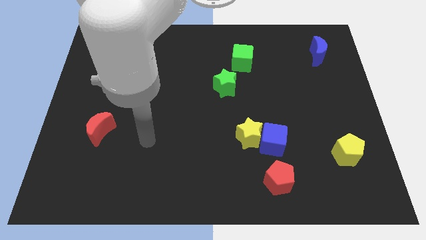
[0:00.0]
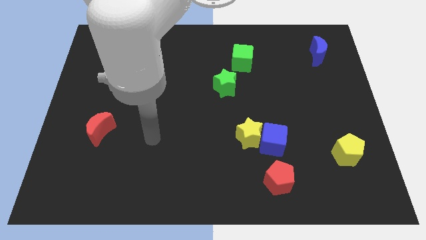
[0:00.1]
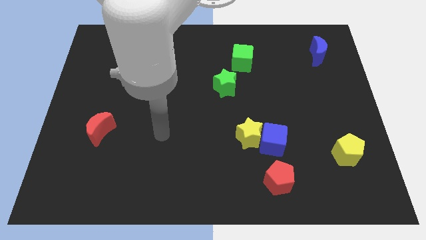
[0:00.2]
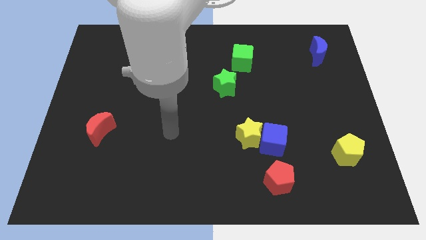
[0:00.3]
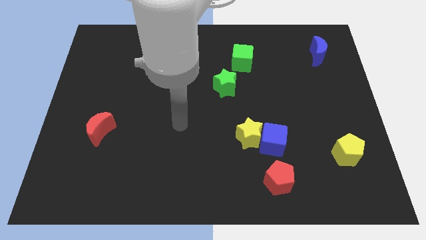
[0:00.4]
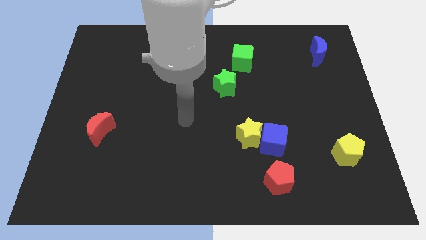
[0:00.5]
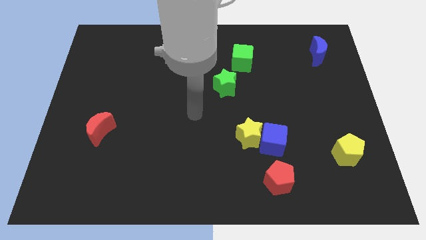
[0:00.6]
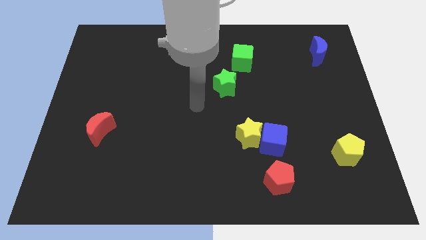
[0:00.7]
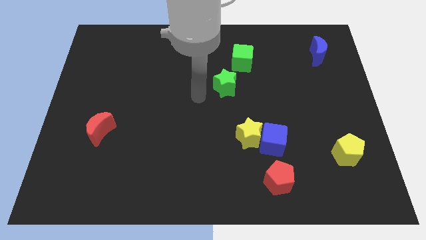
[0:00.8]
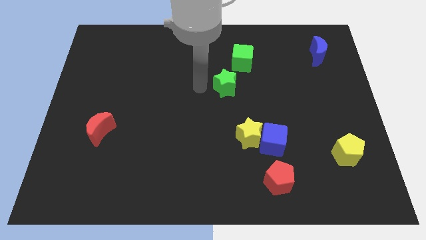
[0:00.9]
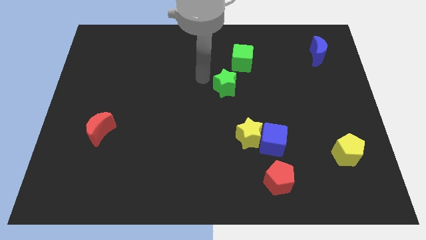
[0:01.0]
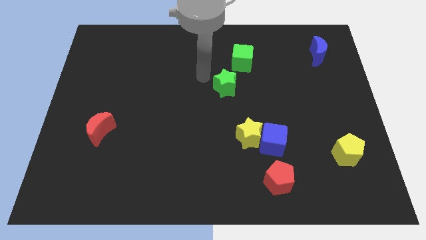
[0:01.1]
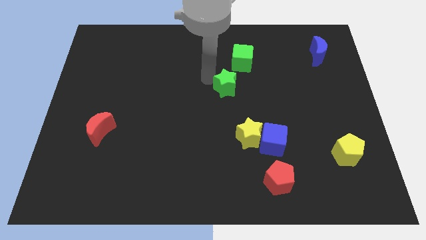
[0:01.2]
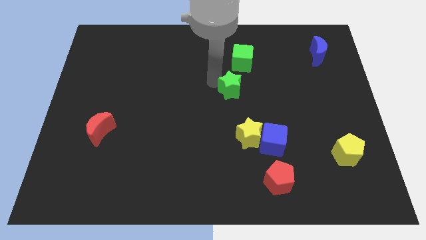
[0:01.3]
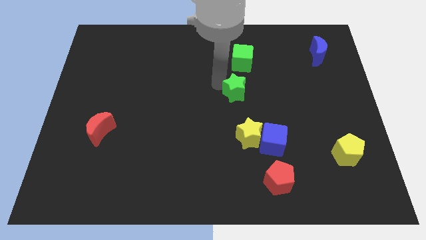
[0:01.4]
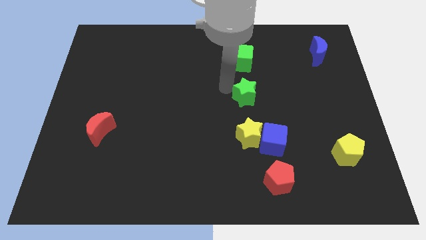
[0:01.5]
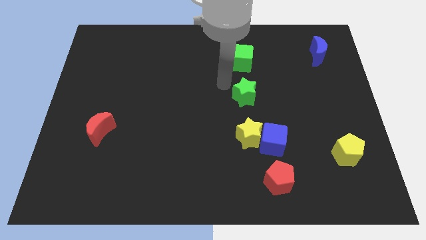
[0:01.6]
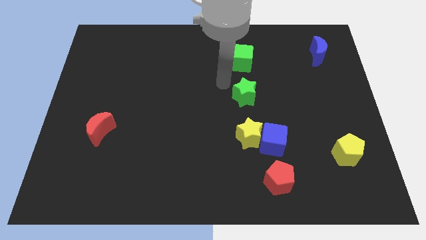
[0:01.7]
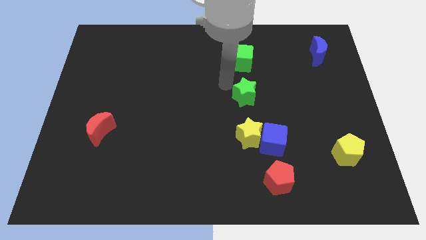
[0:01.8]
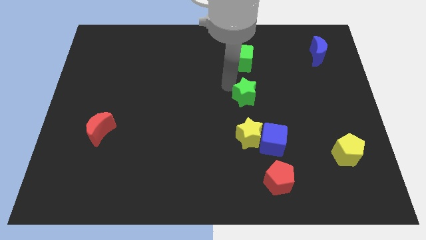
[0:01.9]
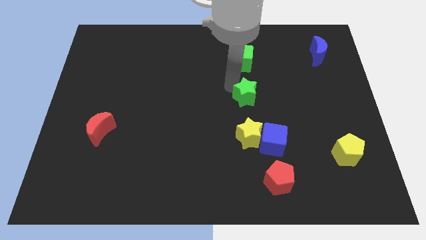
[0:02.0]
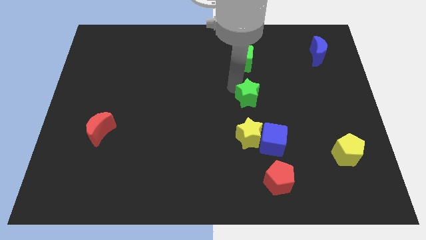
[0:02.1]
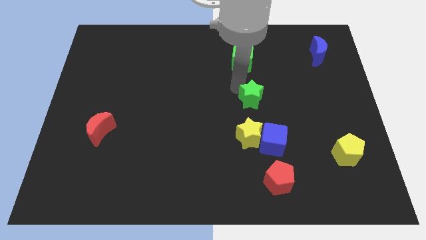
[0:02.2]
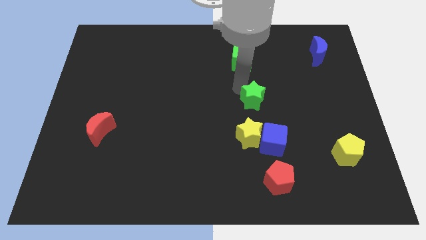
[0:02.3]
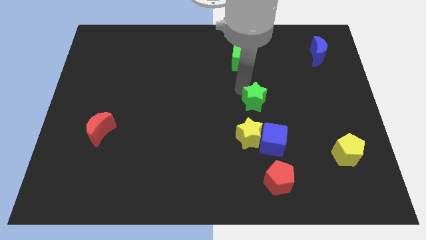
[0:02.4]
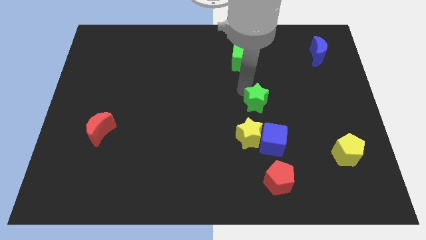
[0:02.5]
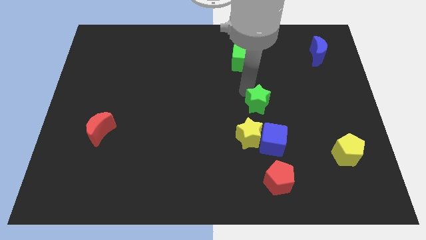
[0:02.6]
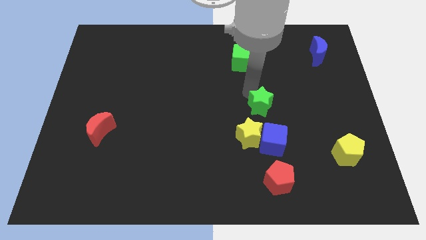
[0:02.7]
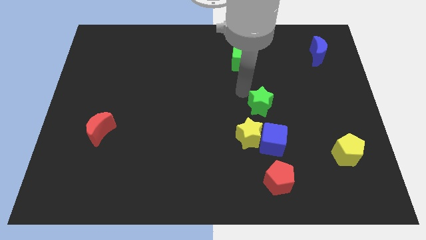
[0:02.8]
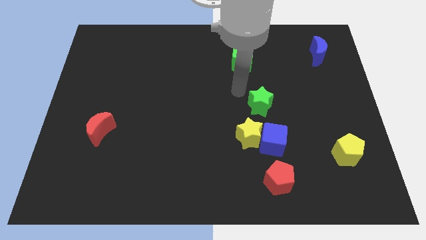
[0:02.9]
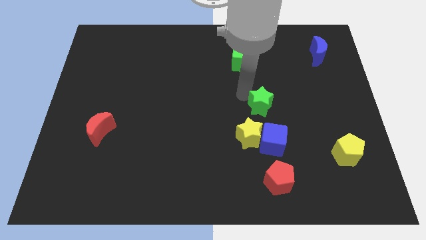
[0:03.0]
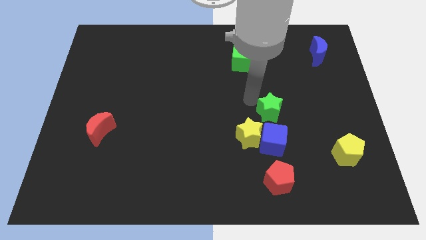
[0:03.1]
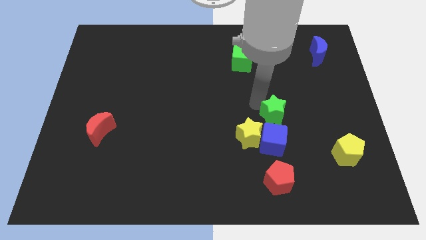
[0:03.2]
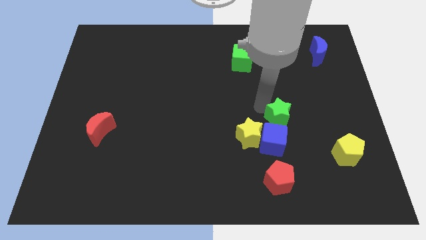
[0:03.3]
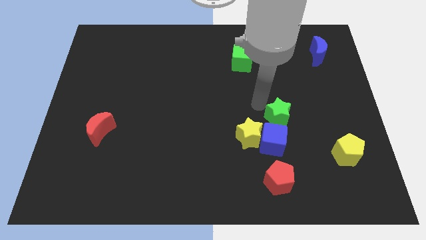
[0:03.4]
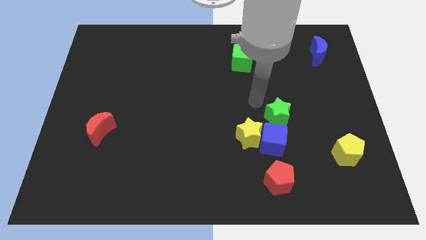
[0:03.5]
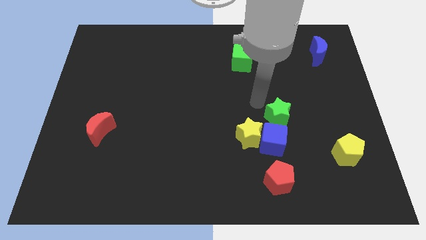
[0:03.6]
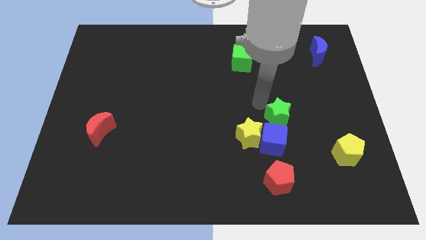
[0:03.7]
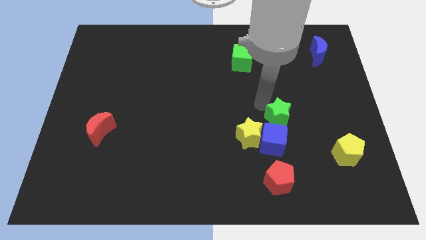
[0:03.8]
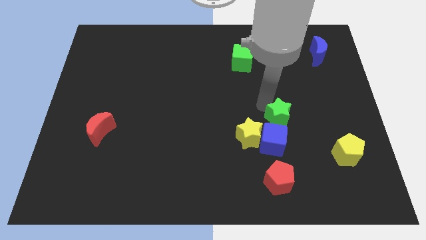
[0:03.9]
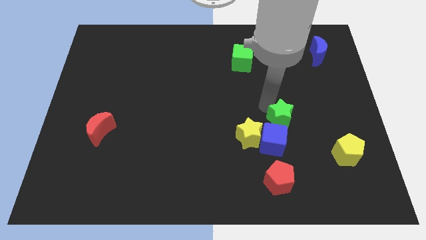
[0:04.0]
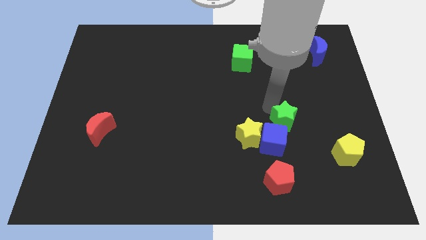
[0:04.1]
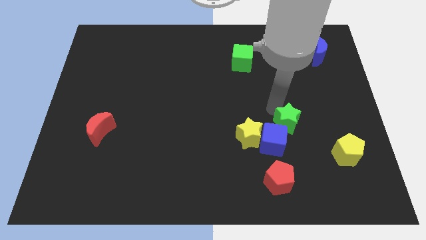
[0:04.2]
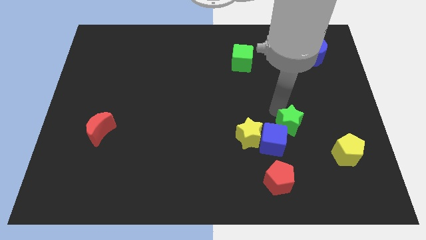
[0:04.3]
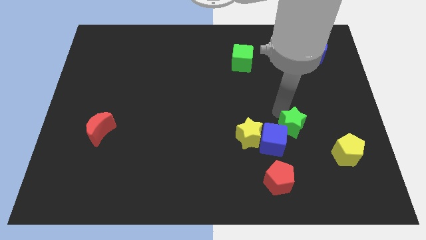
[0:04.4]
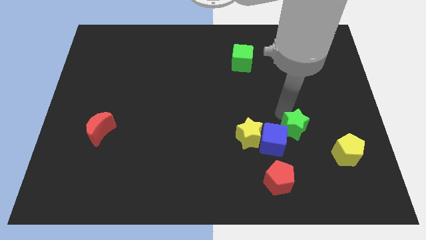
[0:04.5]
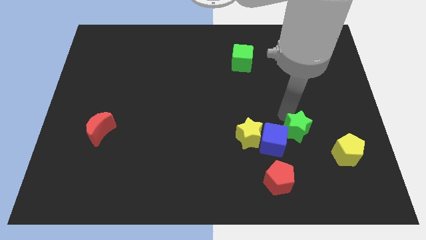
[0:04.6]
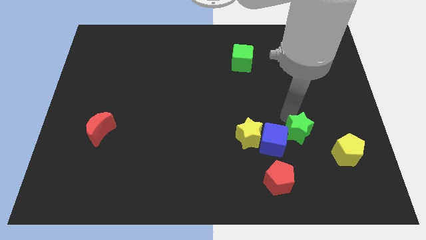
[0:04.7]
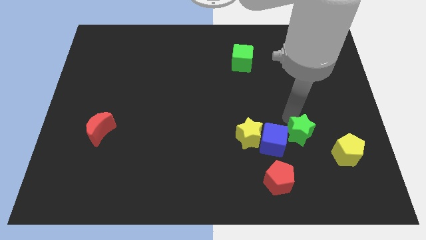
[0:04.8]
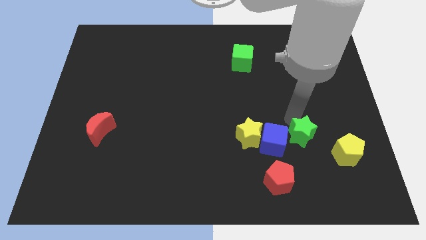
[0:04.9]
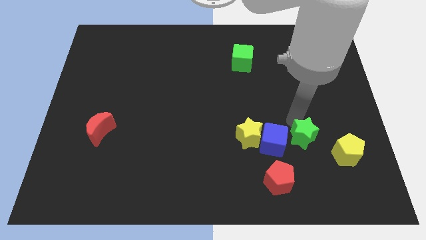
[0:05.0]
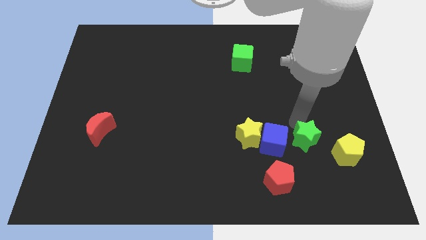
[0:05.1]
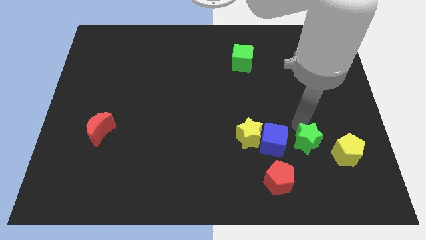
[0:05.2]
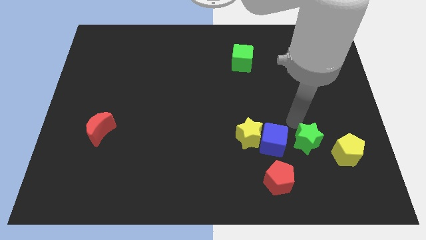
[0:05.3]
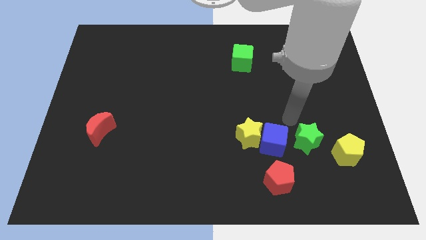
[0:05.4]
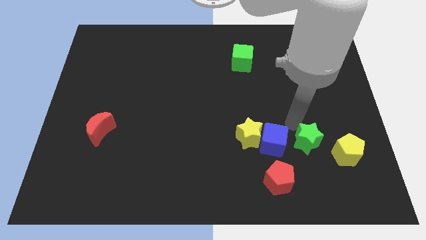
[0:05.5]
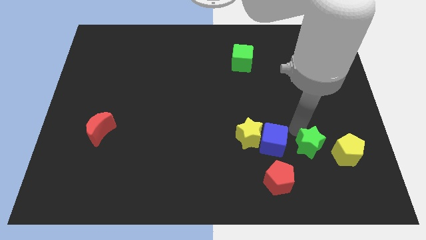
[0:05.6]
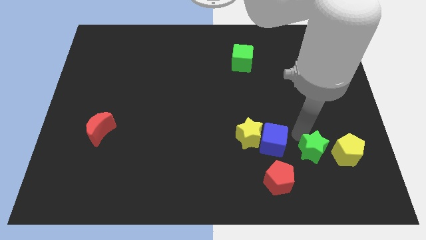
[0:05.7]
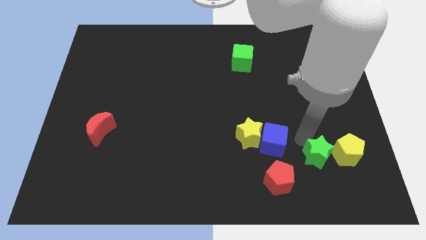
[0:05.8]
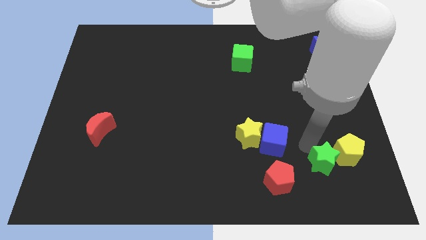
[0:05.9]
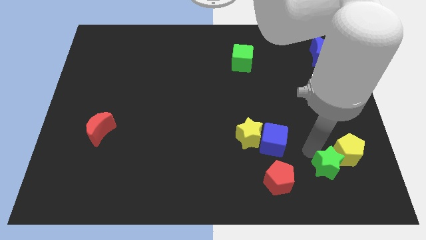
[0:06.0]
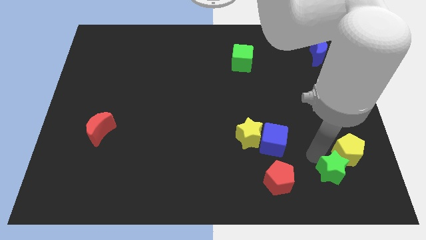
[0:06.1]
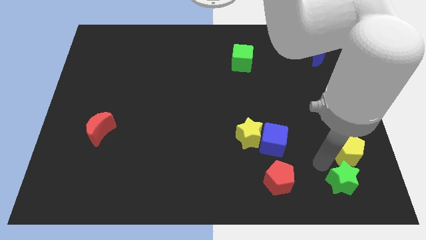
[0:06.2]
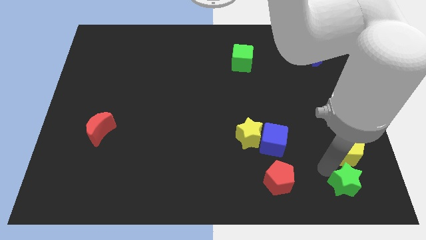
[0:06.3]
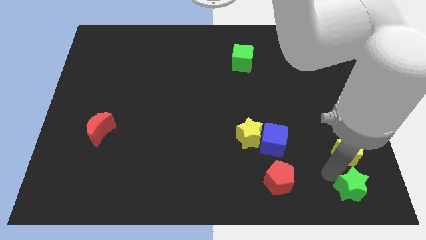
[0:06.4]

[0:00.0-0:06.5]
push the green star to the bottom right
